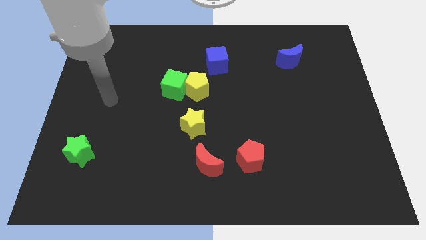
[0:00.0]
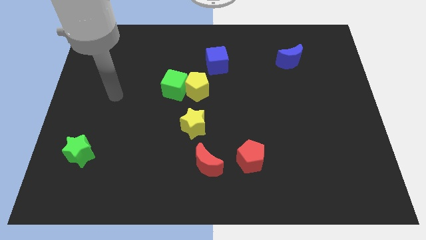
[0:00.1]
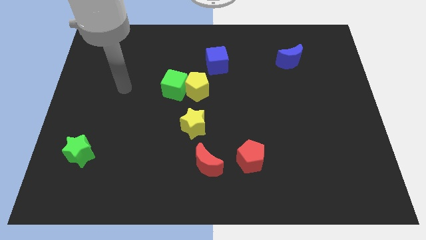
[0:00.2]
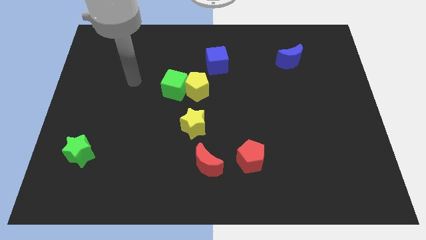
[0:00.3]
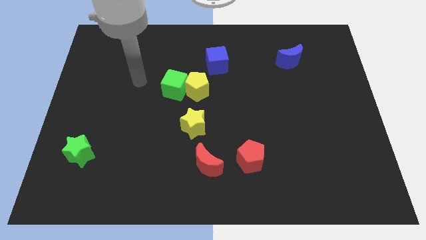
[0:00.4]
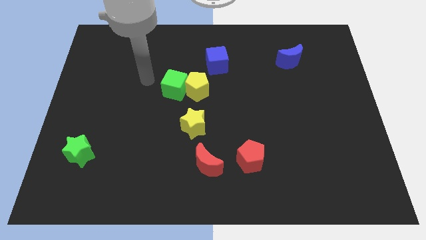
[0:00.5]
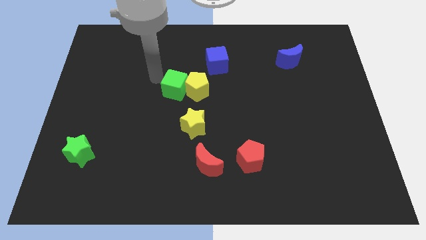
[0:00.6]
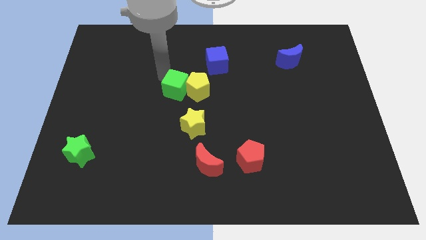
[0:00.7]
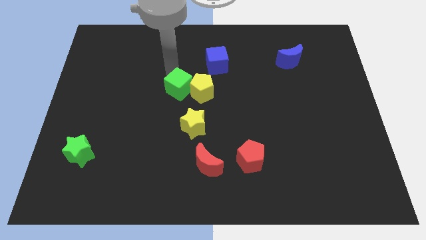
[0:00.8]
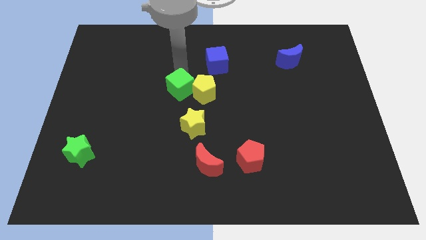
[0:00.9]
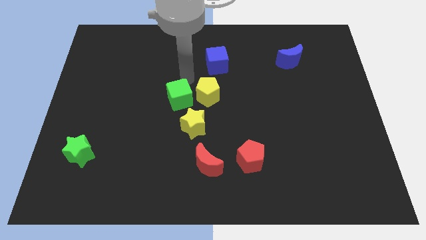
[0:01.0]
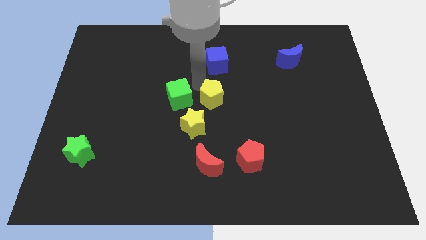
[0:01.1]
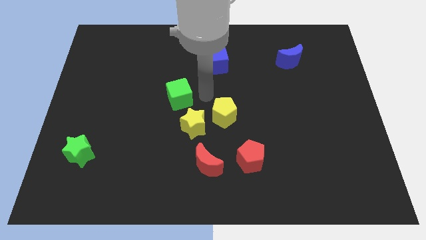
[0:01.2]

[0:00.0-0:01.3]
separate the green cube from the yellow pentagon

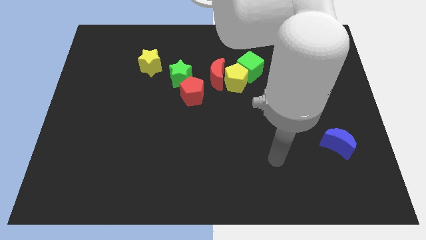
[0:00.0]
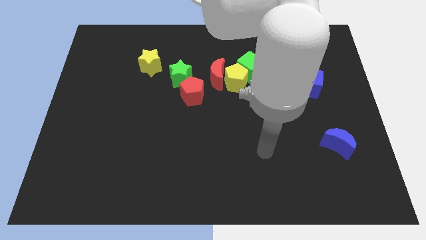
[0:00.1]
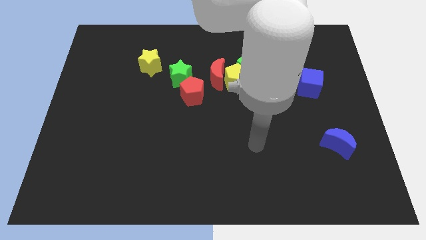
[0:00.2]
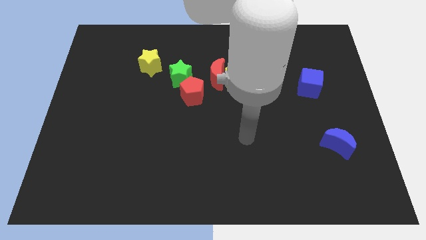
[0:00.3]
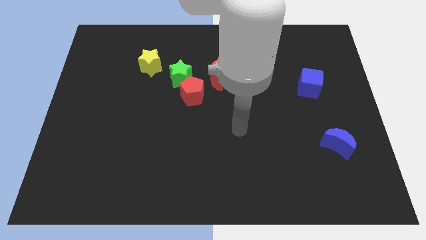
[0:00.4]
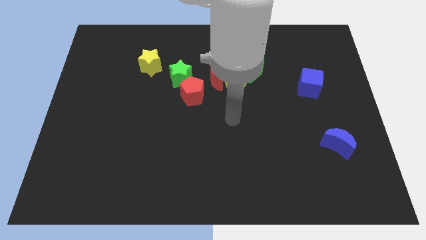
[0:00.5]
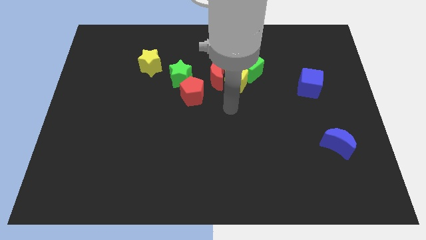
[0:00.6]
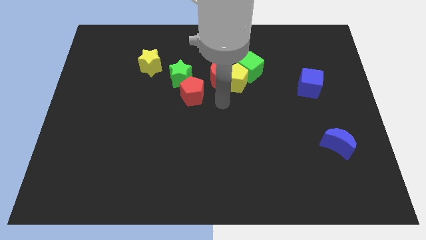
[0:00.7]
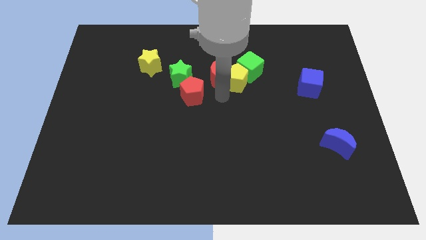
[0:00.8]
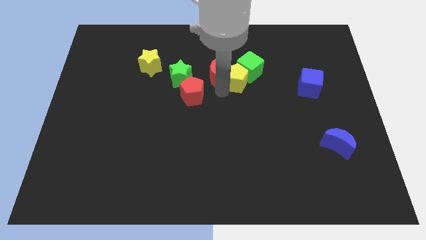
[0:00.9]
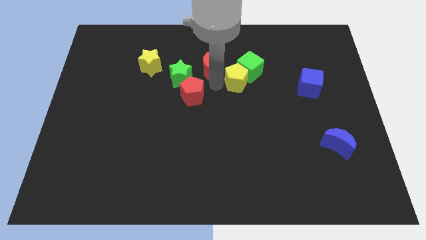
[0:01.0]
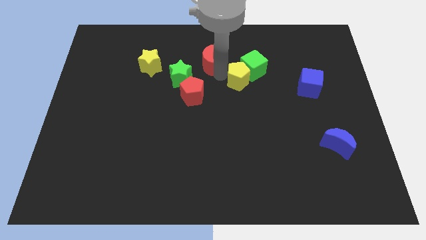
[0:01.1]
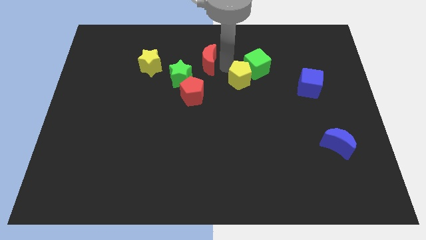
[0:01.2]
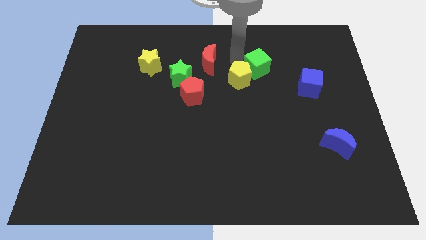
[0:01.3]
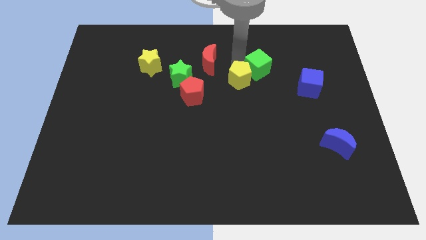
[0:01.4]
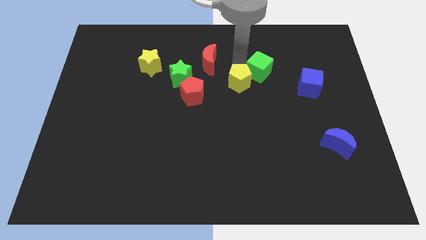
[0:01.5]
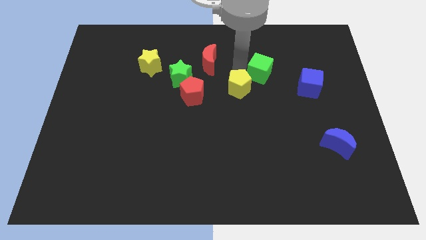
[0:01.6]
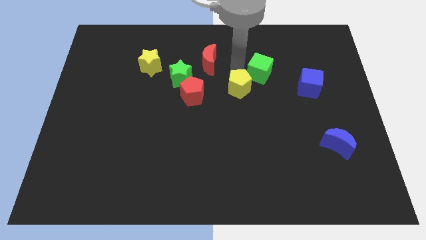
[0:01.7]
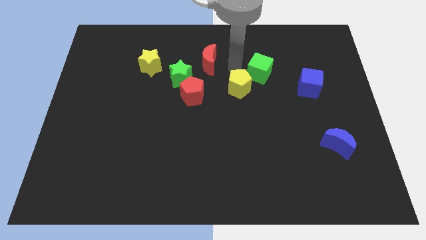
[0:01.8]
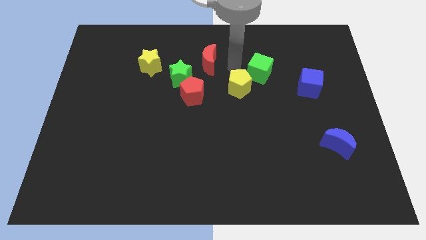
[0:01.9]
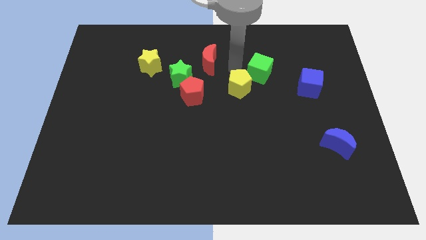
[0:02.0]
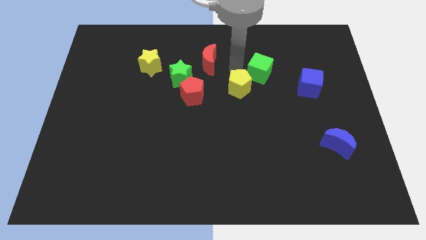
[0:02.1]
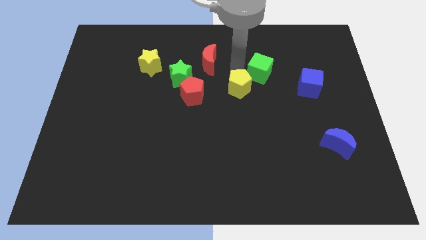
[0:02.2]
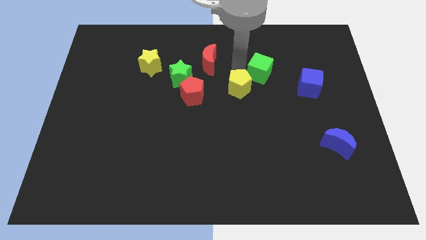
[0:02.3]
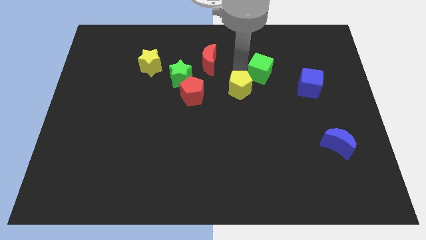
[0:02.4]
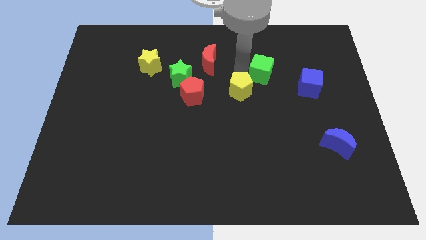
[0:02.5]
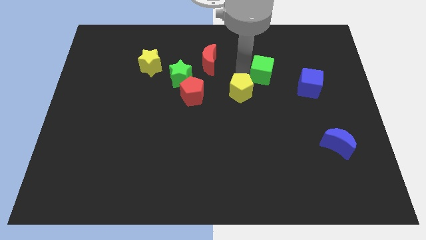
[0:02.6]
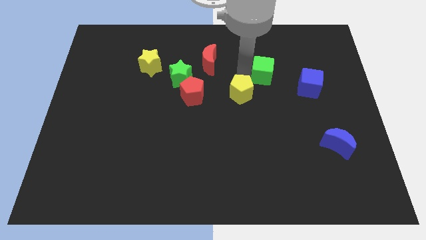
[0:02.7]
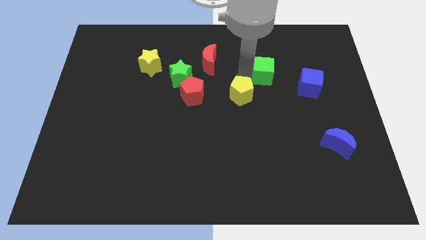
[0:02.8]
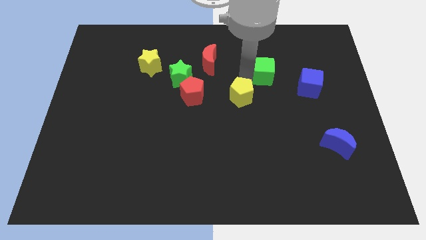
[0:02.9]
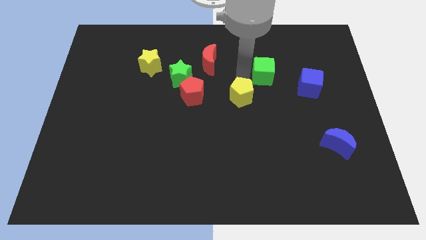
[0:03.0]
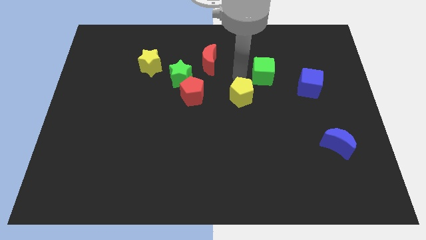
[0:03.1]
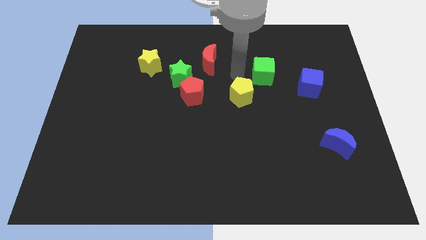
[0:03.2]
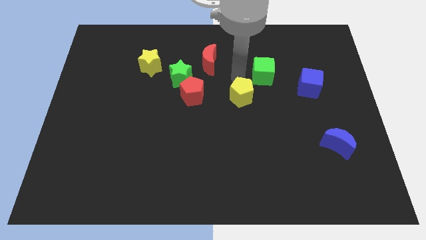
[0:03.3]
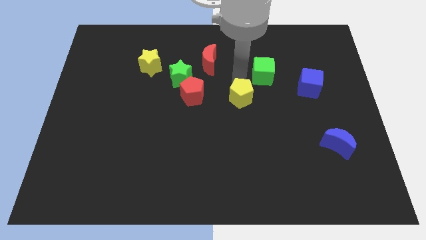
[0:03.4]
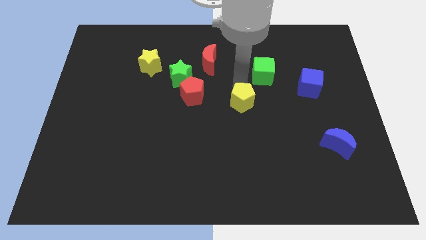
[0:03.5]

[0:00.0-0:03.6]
move the yellow pentagon away from the red moon and green cube

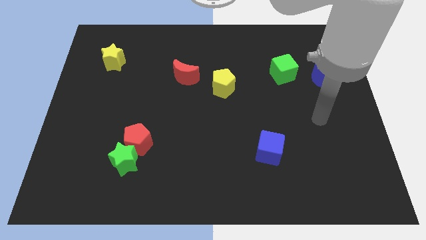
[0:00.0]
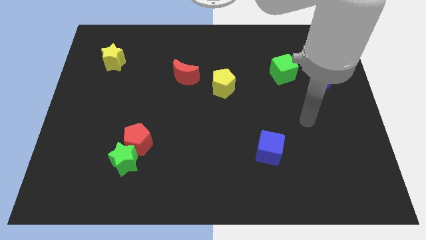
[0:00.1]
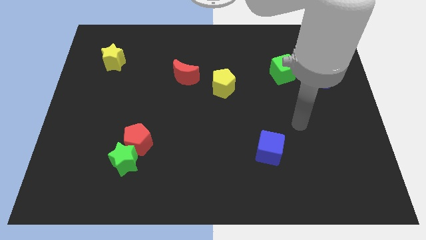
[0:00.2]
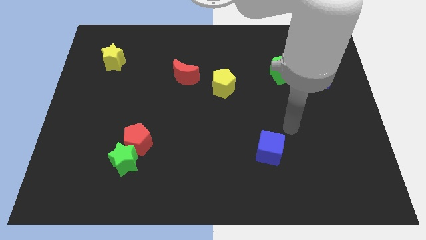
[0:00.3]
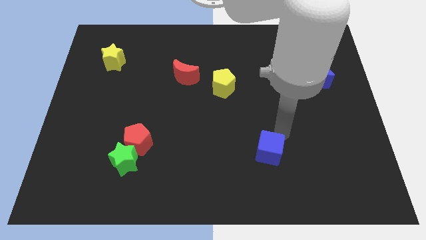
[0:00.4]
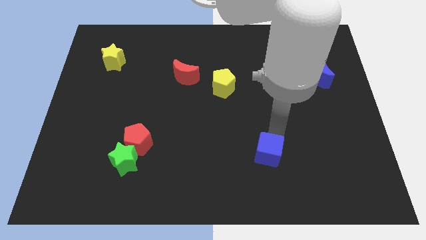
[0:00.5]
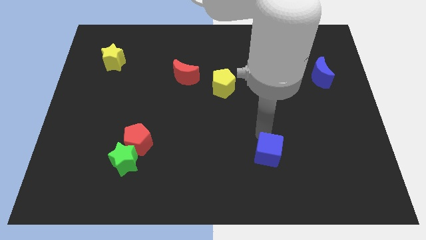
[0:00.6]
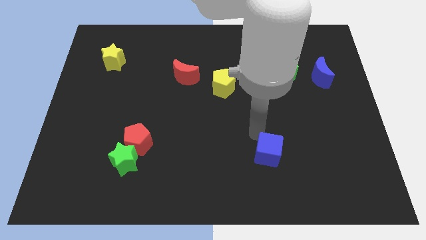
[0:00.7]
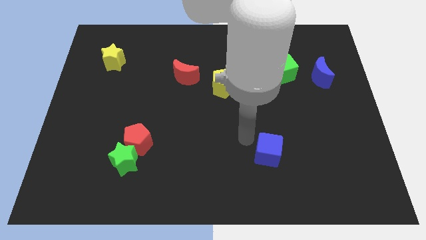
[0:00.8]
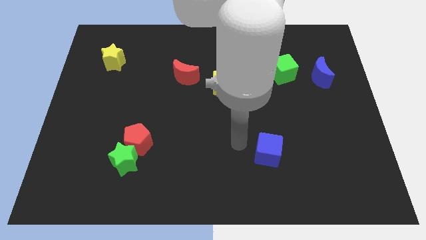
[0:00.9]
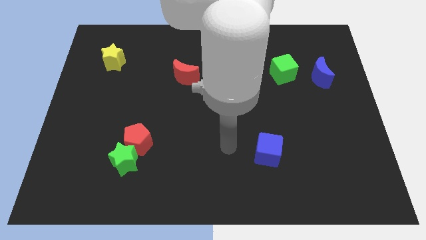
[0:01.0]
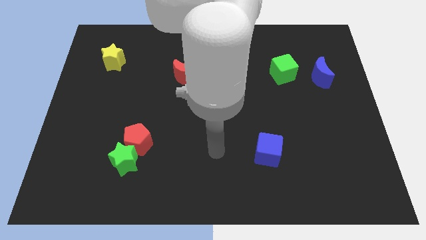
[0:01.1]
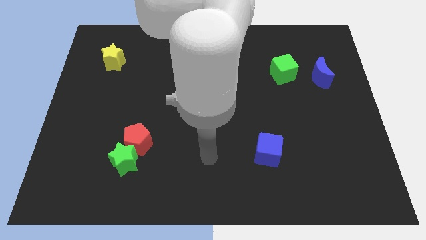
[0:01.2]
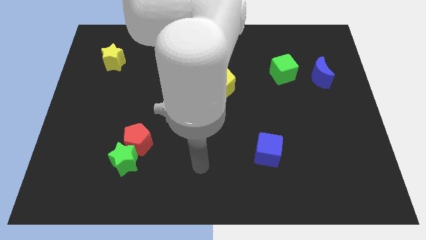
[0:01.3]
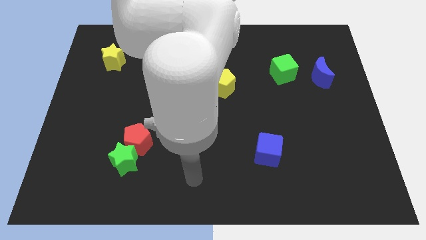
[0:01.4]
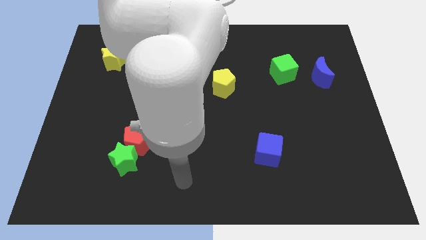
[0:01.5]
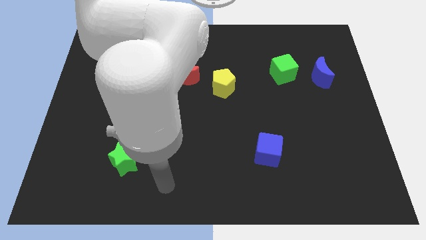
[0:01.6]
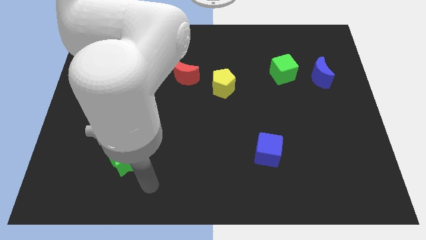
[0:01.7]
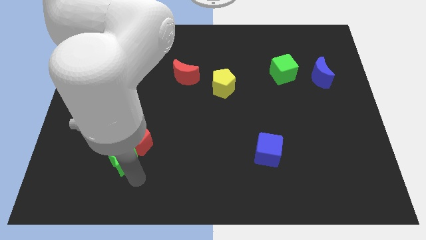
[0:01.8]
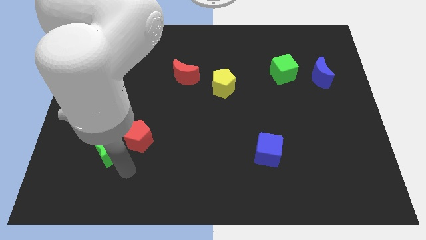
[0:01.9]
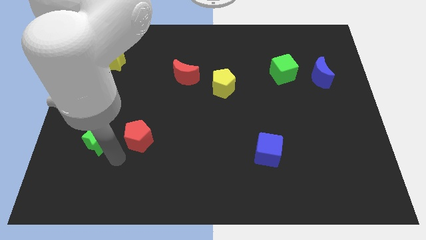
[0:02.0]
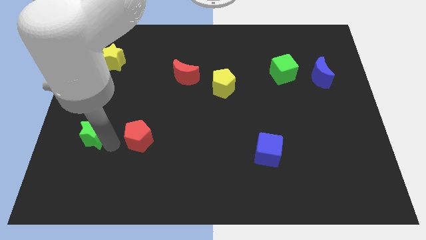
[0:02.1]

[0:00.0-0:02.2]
pull the red pentagon apart from the green star

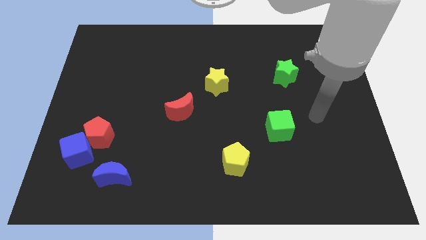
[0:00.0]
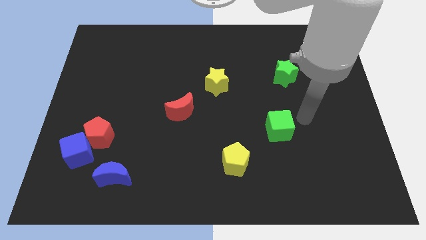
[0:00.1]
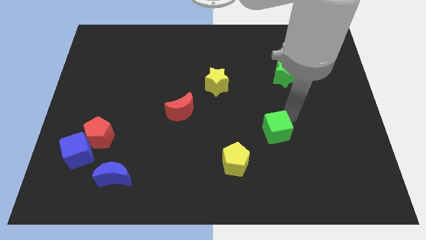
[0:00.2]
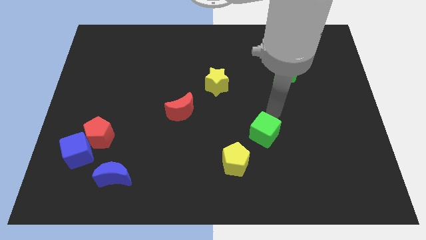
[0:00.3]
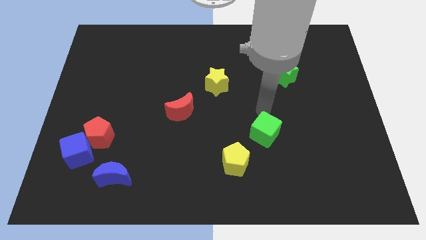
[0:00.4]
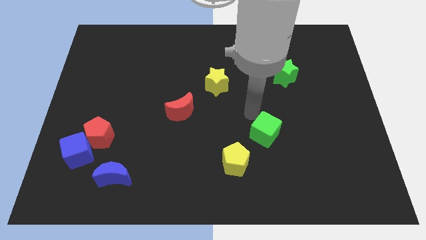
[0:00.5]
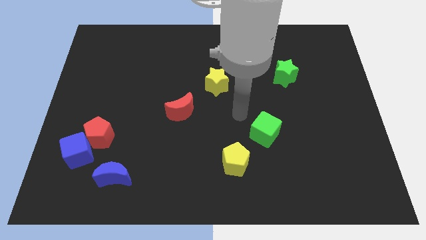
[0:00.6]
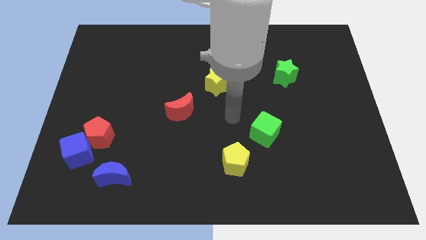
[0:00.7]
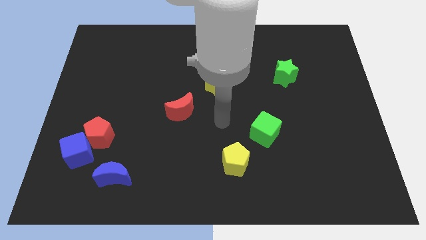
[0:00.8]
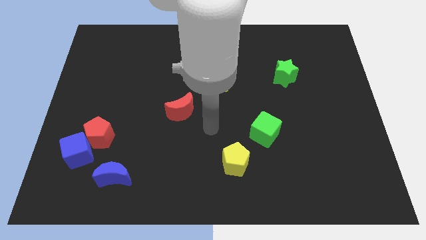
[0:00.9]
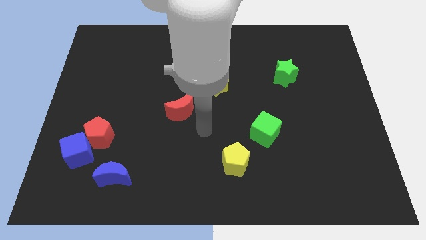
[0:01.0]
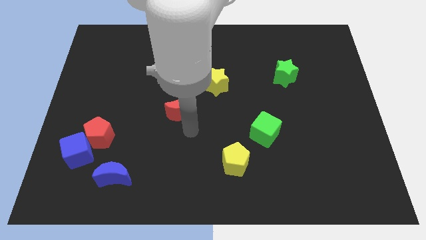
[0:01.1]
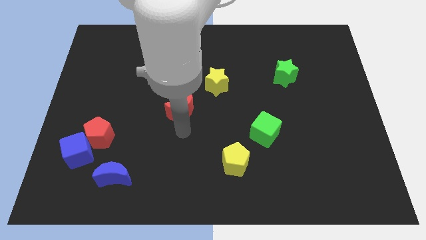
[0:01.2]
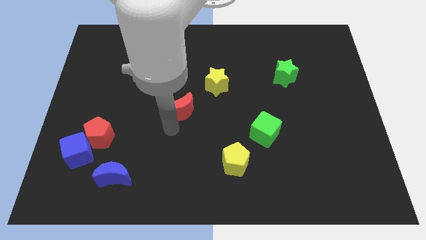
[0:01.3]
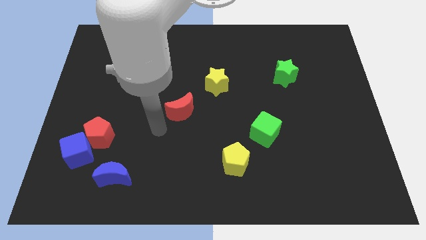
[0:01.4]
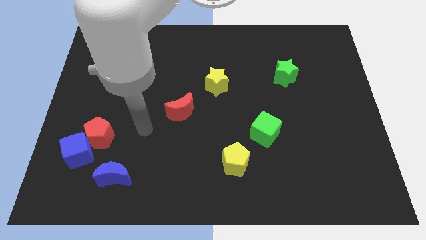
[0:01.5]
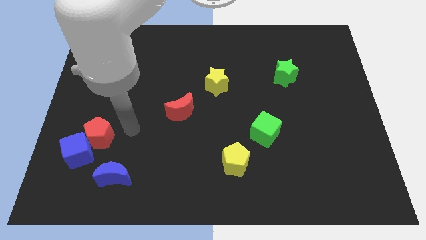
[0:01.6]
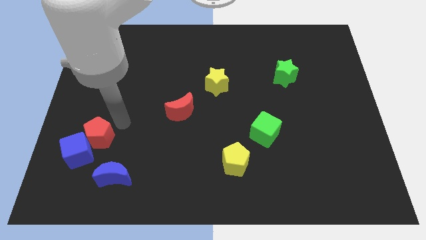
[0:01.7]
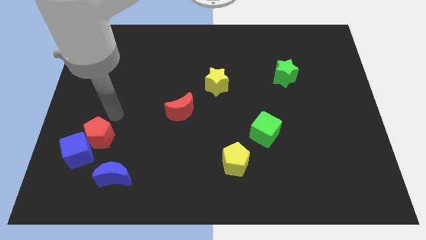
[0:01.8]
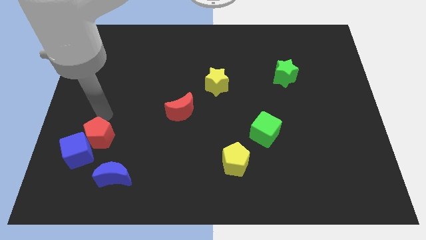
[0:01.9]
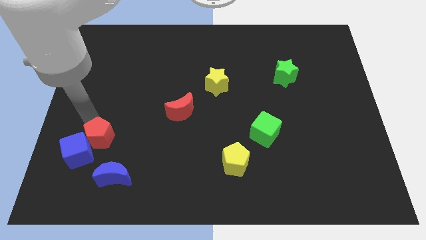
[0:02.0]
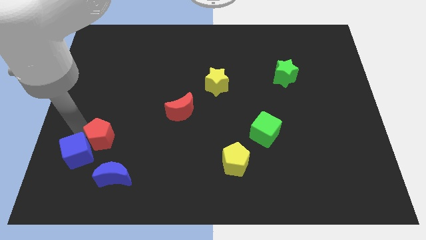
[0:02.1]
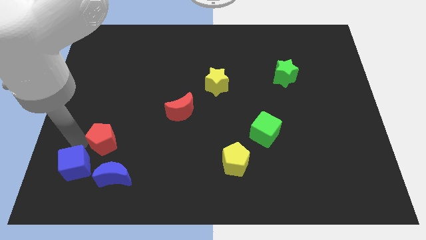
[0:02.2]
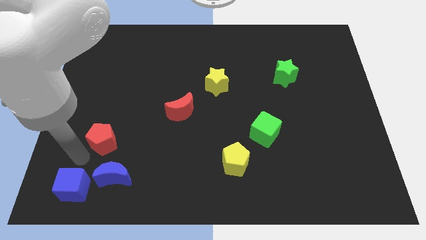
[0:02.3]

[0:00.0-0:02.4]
separate the red pentagon from the blue cube
